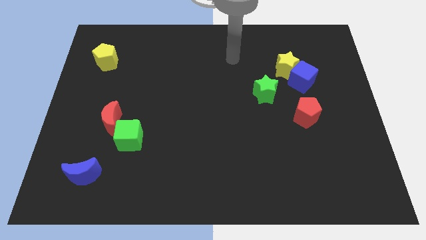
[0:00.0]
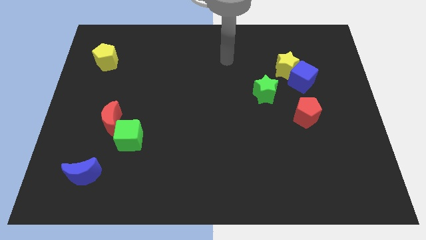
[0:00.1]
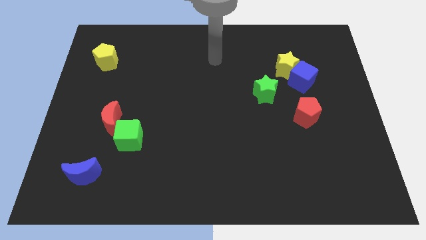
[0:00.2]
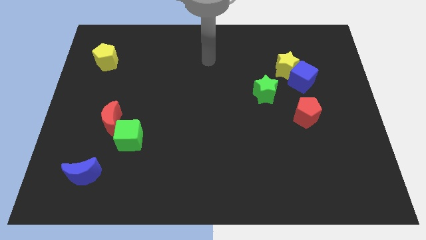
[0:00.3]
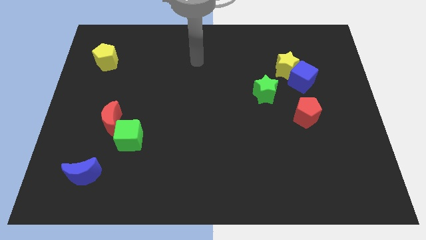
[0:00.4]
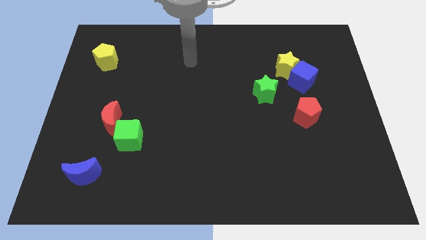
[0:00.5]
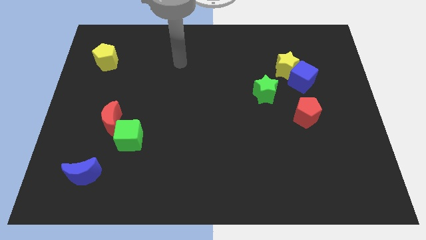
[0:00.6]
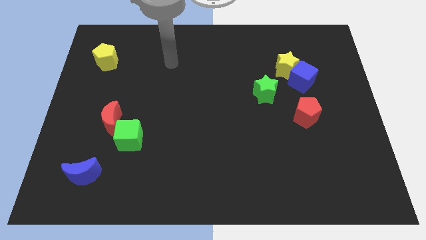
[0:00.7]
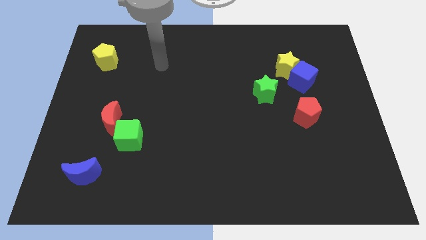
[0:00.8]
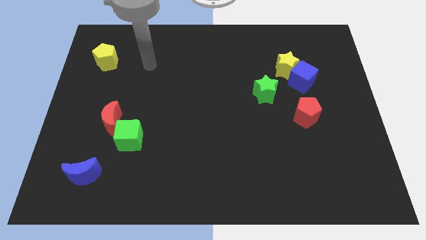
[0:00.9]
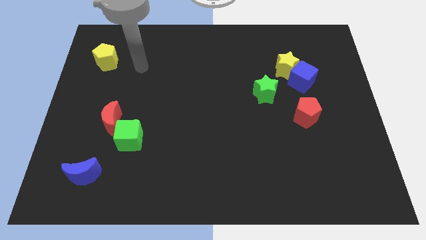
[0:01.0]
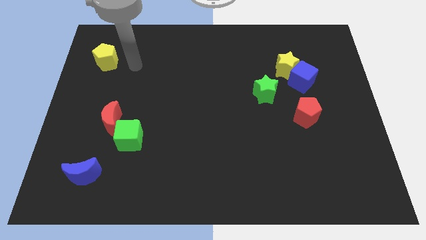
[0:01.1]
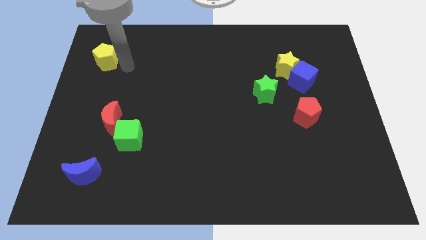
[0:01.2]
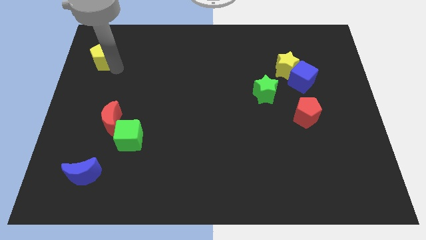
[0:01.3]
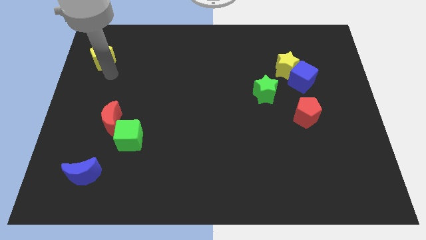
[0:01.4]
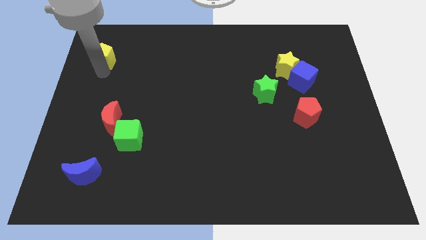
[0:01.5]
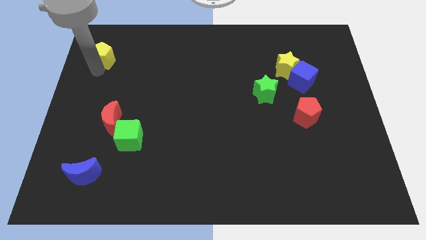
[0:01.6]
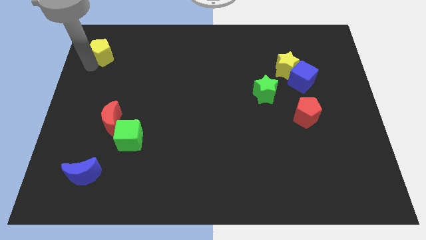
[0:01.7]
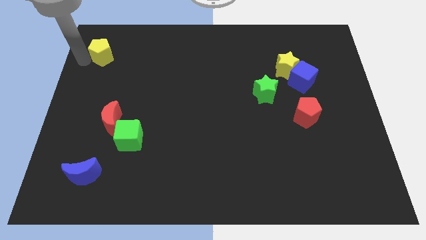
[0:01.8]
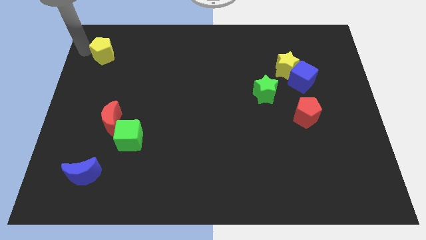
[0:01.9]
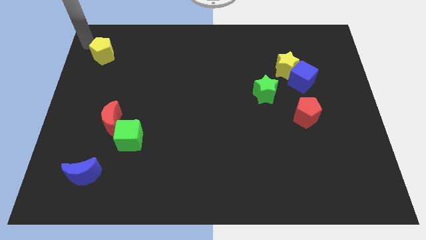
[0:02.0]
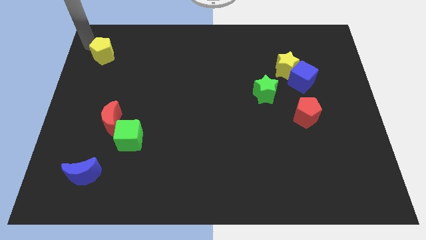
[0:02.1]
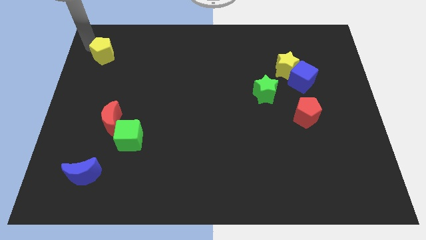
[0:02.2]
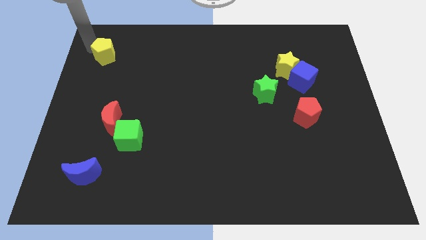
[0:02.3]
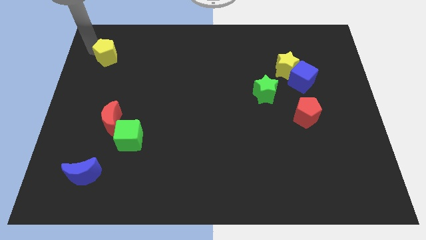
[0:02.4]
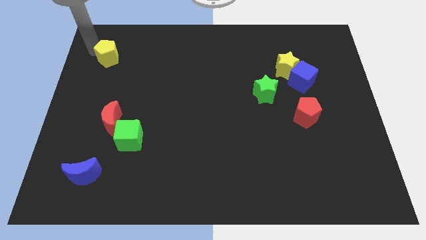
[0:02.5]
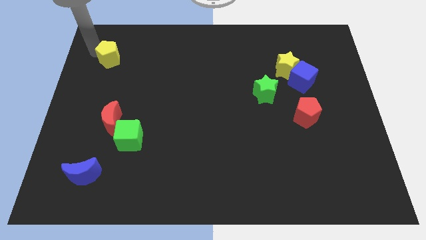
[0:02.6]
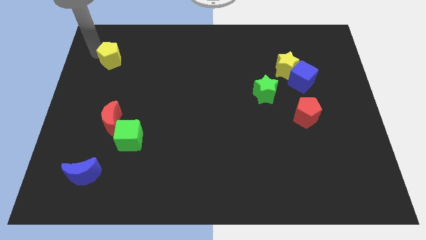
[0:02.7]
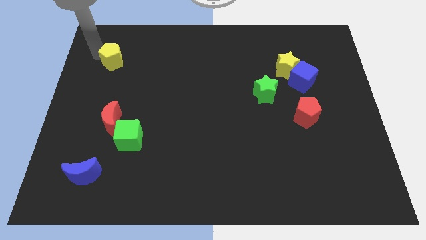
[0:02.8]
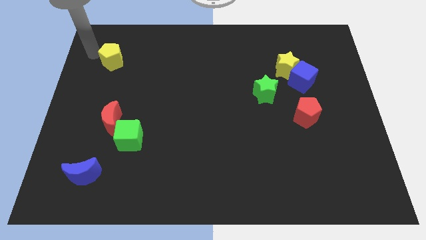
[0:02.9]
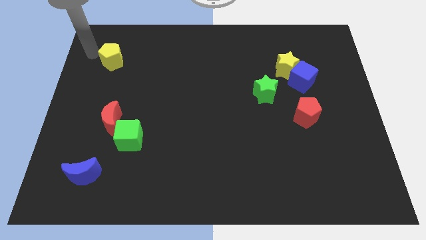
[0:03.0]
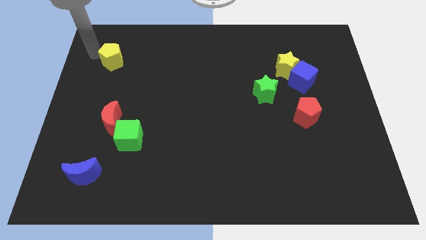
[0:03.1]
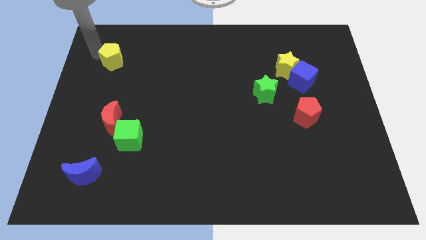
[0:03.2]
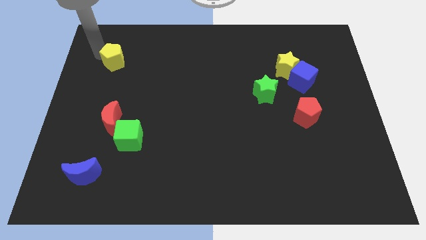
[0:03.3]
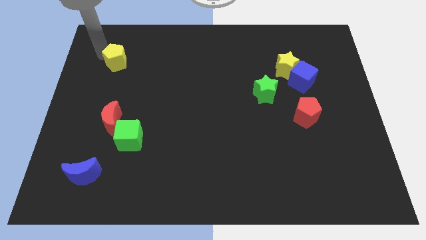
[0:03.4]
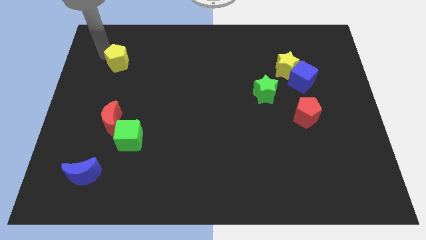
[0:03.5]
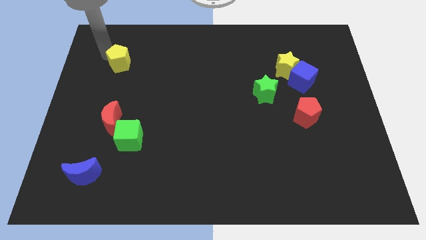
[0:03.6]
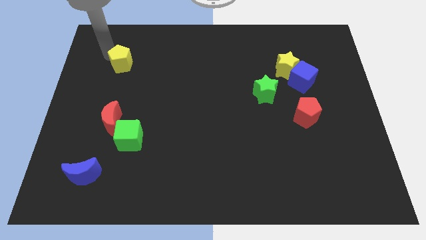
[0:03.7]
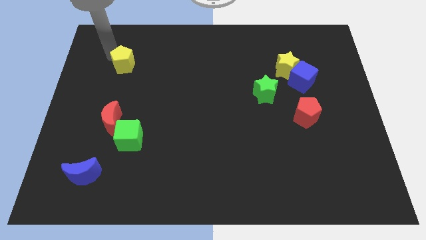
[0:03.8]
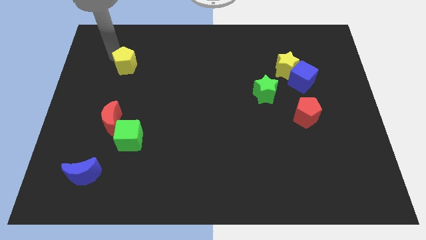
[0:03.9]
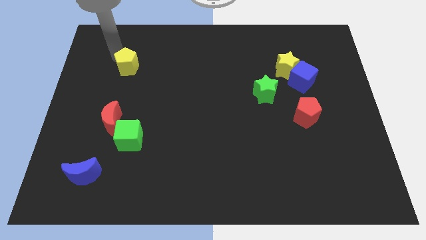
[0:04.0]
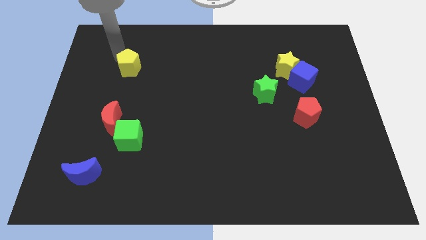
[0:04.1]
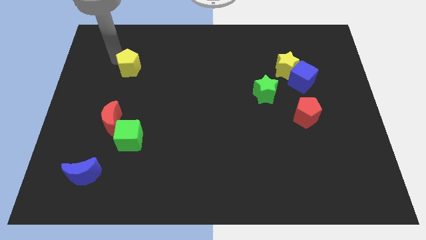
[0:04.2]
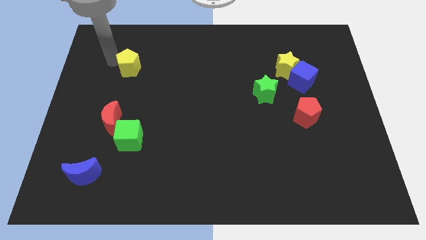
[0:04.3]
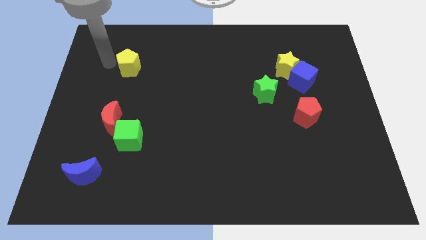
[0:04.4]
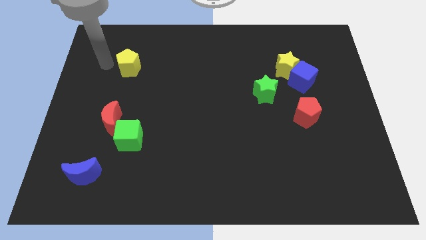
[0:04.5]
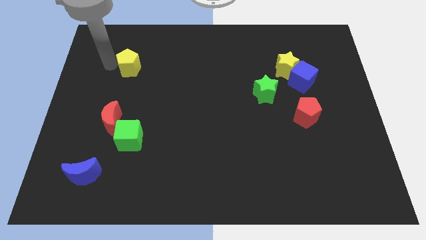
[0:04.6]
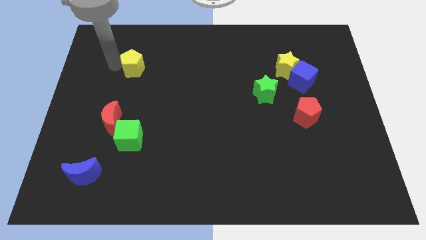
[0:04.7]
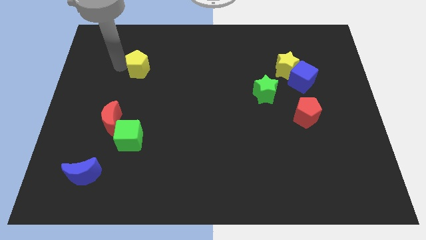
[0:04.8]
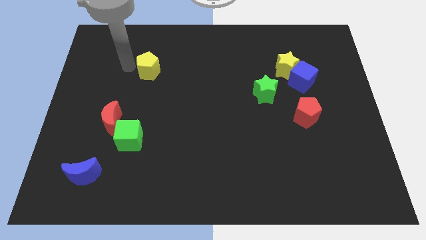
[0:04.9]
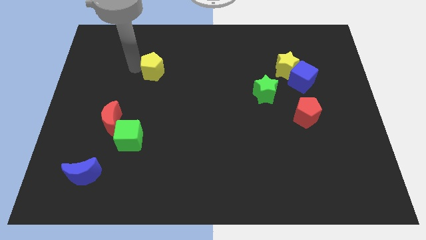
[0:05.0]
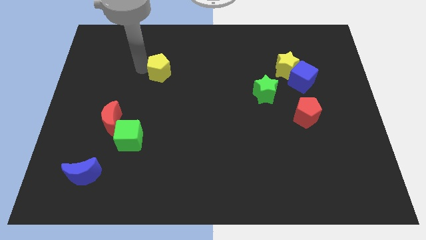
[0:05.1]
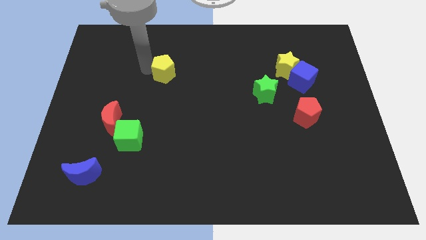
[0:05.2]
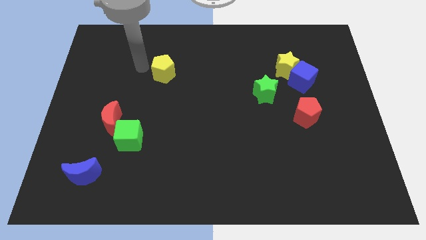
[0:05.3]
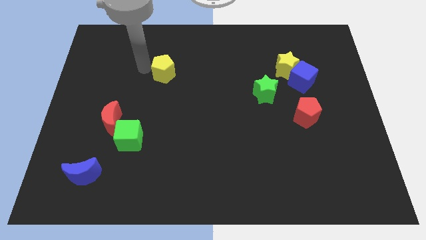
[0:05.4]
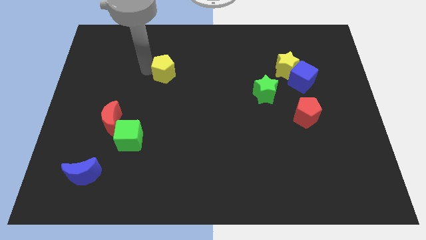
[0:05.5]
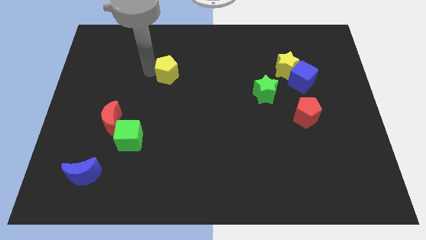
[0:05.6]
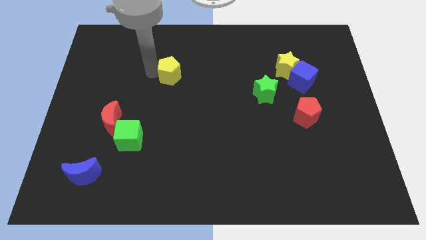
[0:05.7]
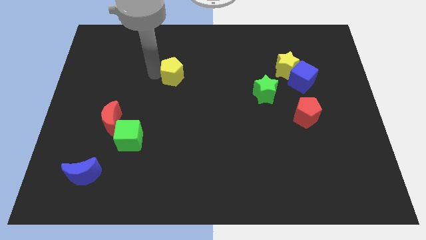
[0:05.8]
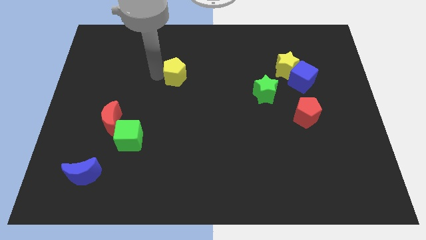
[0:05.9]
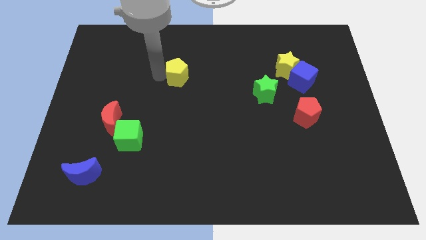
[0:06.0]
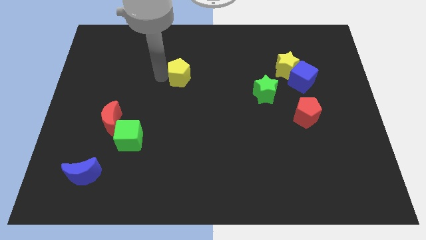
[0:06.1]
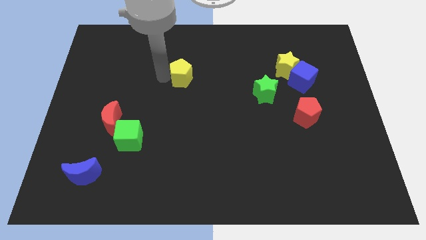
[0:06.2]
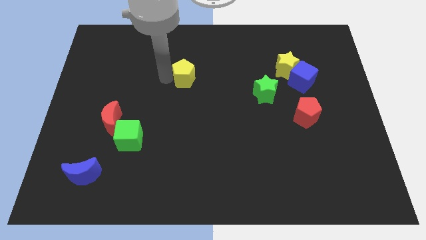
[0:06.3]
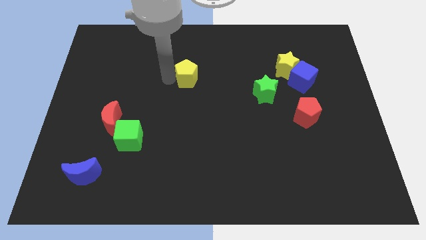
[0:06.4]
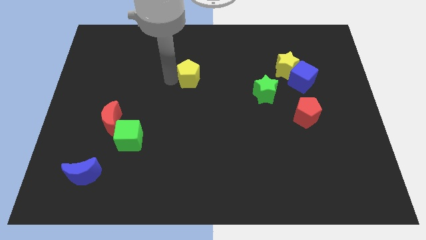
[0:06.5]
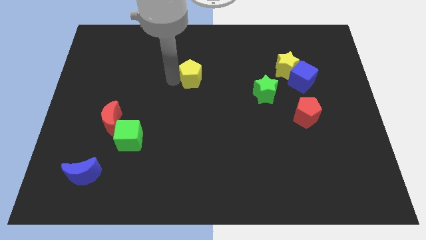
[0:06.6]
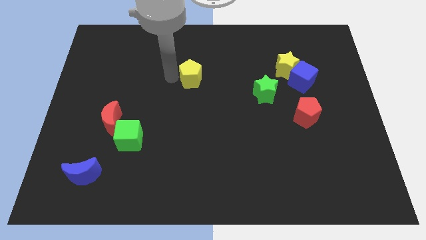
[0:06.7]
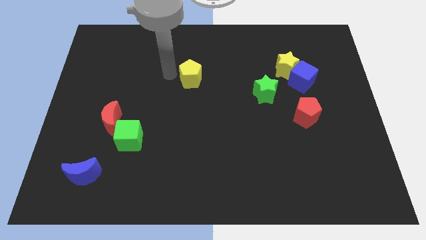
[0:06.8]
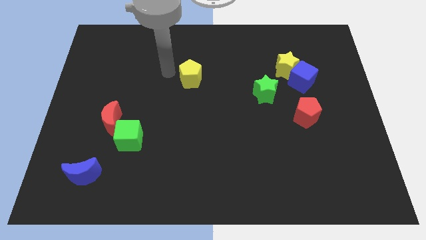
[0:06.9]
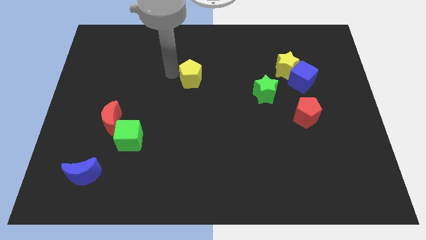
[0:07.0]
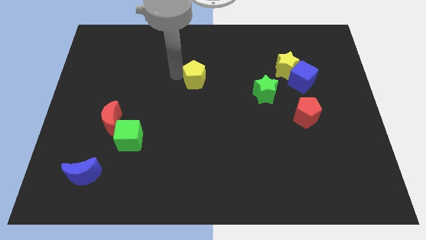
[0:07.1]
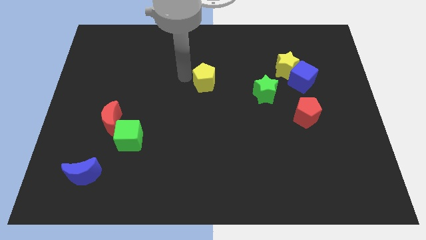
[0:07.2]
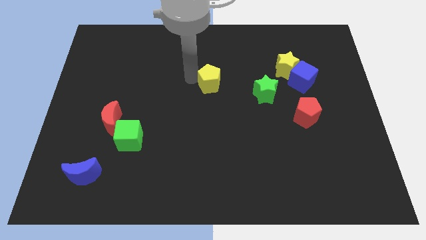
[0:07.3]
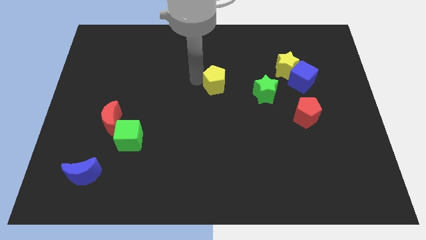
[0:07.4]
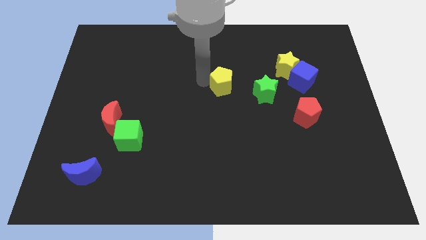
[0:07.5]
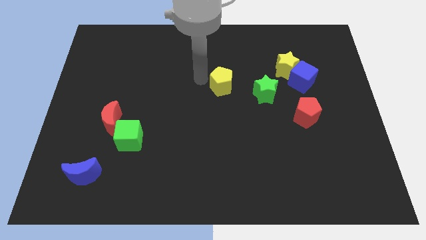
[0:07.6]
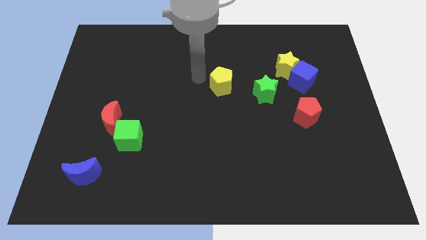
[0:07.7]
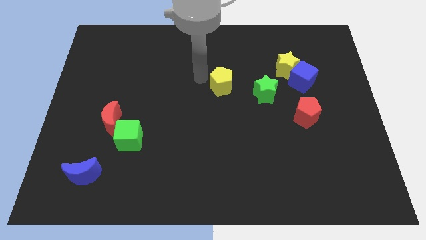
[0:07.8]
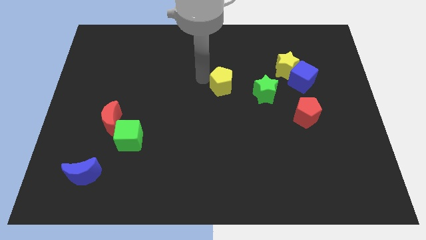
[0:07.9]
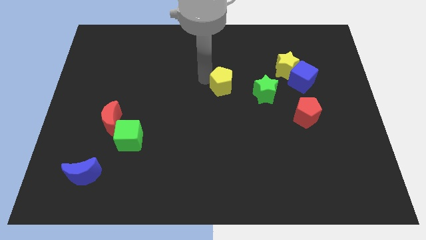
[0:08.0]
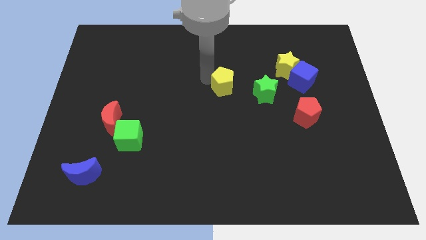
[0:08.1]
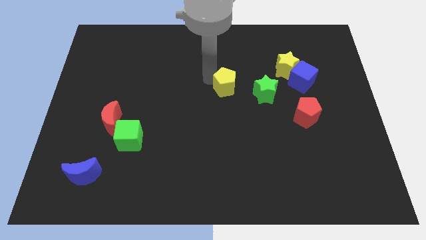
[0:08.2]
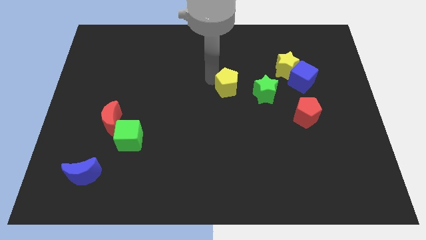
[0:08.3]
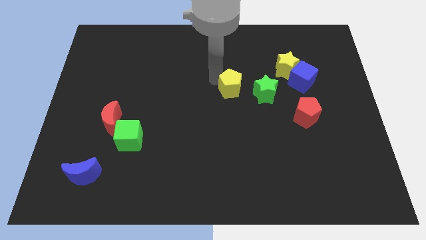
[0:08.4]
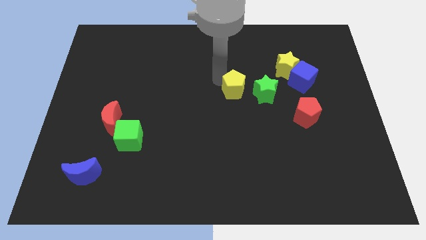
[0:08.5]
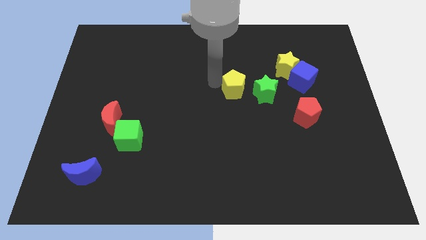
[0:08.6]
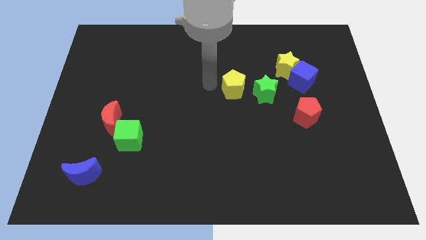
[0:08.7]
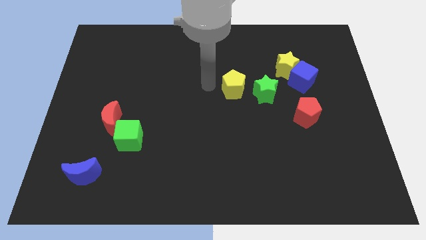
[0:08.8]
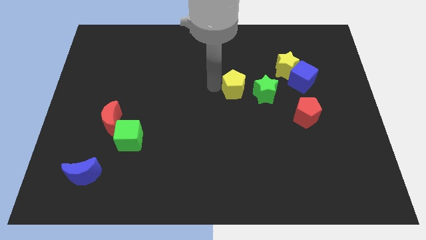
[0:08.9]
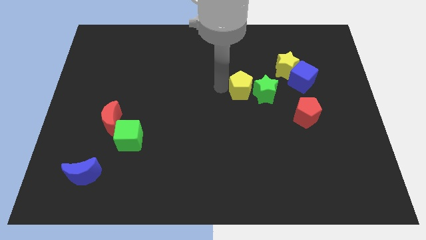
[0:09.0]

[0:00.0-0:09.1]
push the yellow pentagon towards the green star
